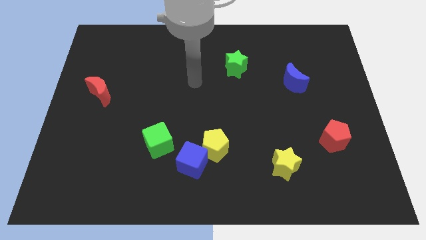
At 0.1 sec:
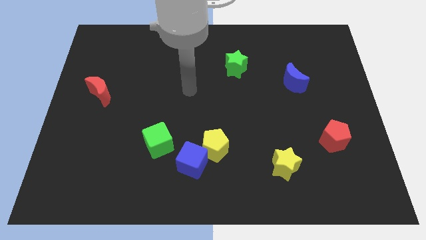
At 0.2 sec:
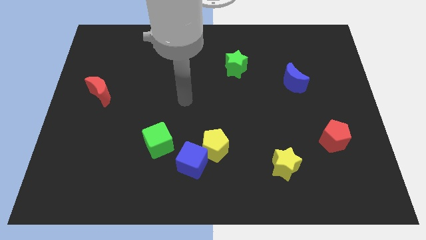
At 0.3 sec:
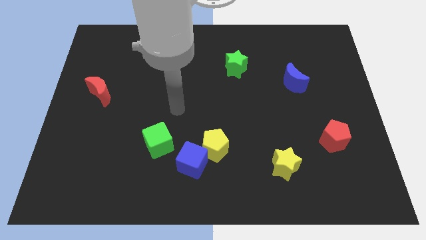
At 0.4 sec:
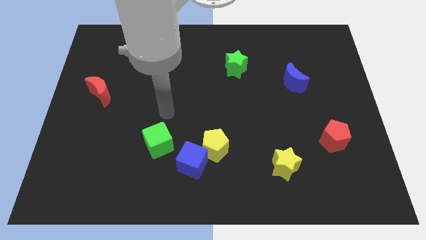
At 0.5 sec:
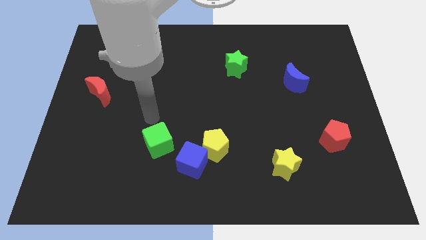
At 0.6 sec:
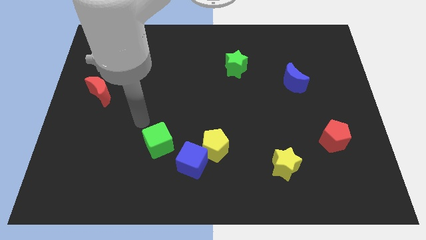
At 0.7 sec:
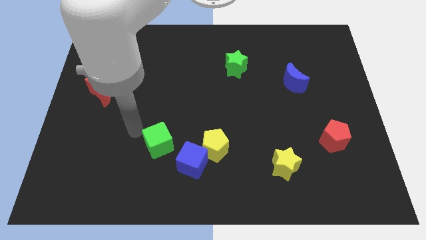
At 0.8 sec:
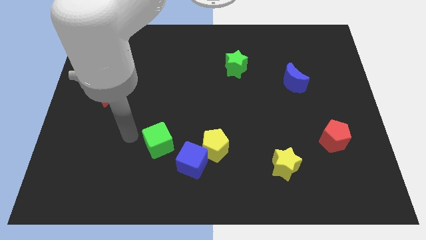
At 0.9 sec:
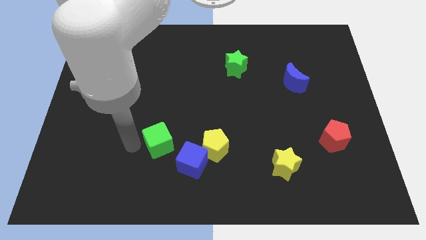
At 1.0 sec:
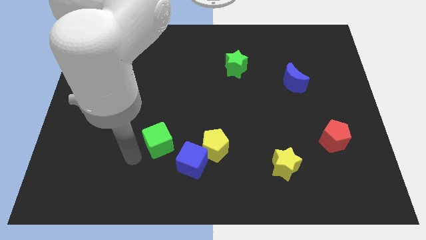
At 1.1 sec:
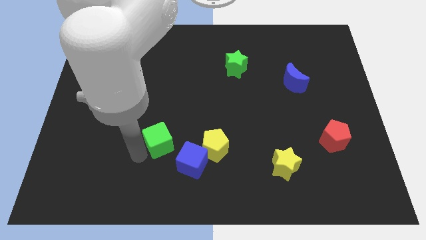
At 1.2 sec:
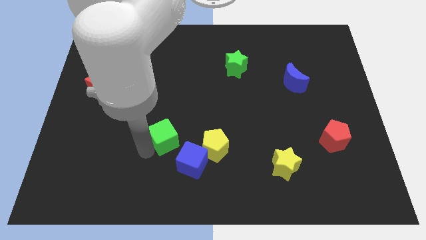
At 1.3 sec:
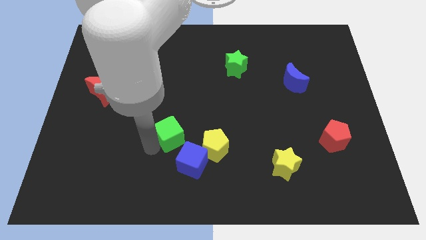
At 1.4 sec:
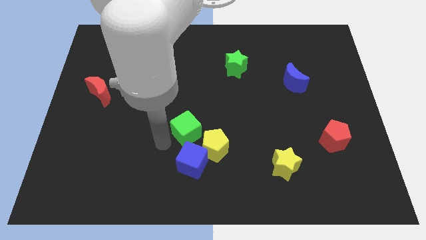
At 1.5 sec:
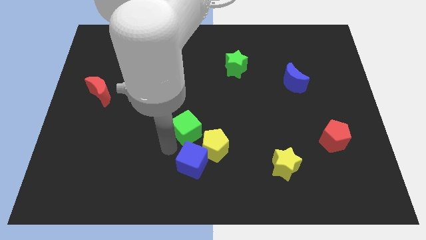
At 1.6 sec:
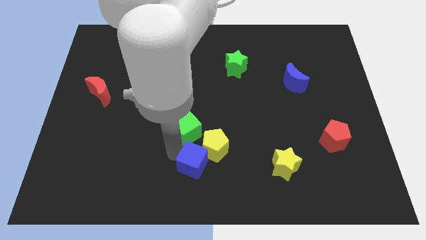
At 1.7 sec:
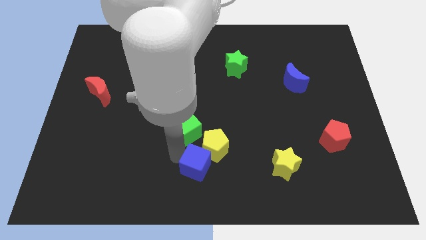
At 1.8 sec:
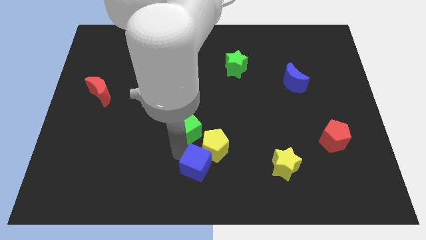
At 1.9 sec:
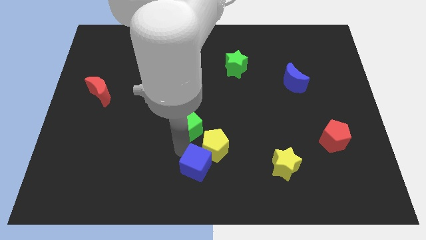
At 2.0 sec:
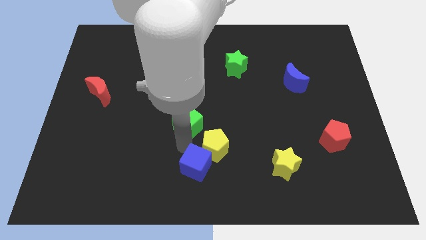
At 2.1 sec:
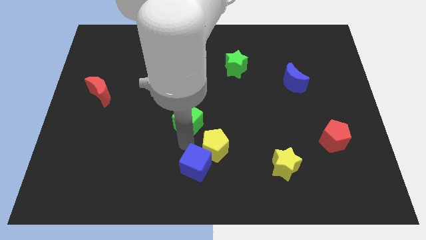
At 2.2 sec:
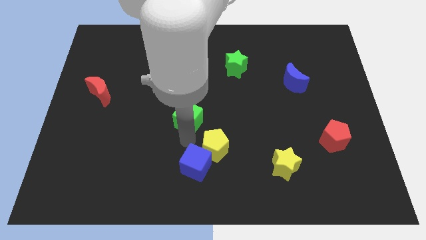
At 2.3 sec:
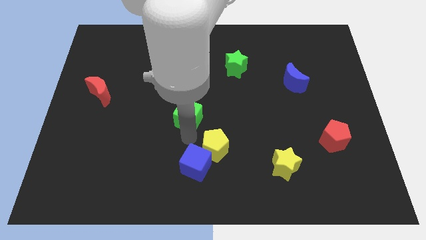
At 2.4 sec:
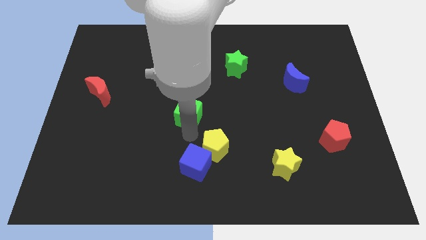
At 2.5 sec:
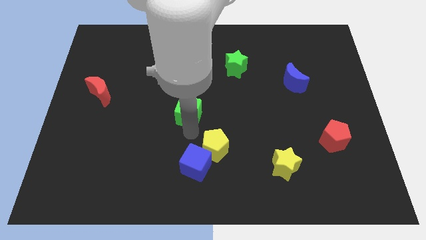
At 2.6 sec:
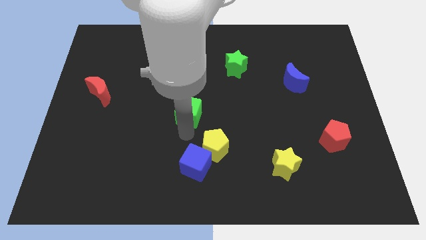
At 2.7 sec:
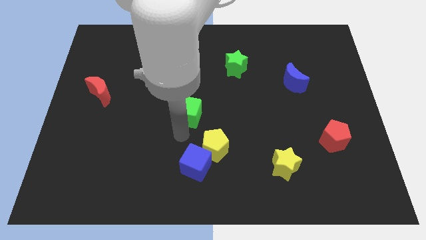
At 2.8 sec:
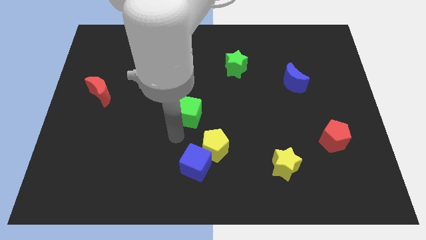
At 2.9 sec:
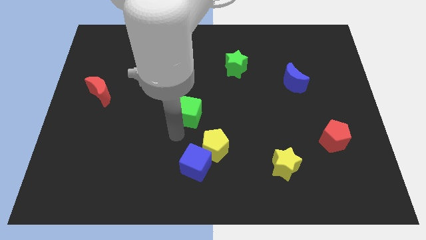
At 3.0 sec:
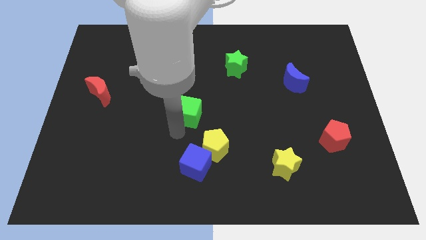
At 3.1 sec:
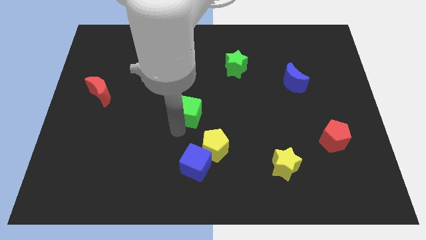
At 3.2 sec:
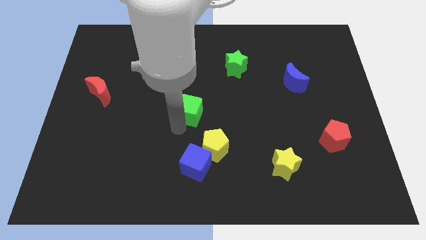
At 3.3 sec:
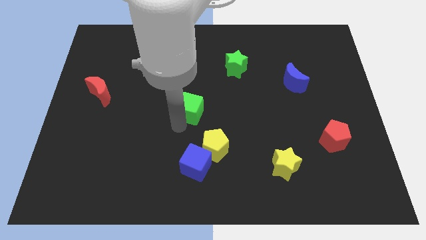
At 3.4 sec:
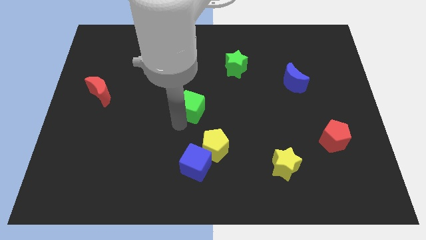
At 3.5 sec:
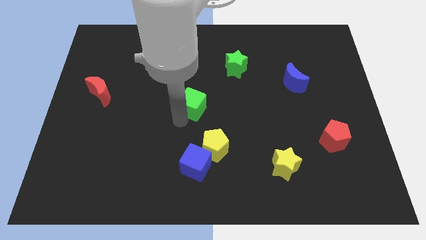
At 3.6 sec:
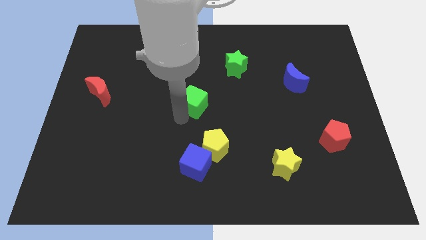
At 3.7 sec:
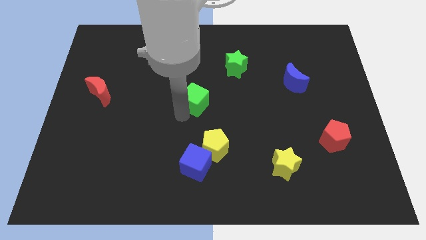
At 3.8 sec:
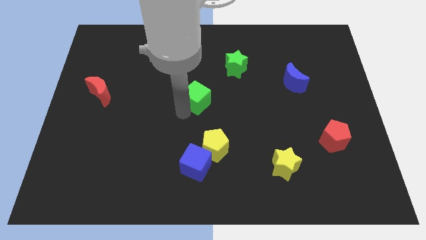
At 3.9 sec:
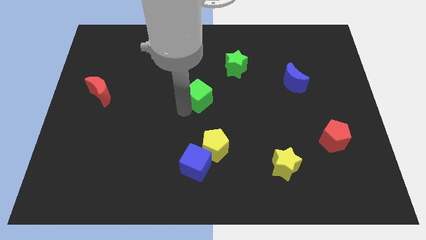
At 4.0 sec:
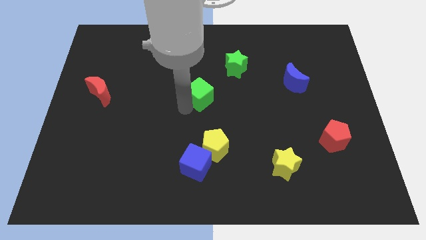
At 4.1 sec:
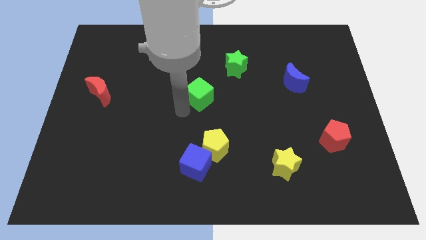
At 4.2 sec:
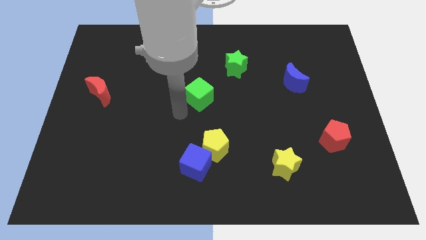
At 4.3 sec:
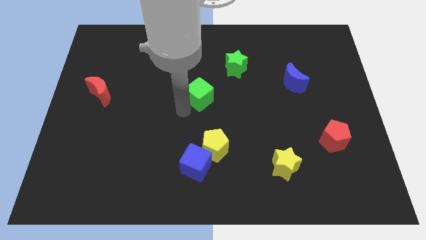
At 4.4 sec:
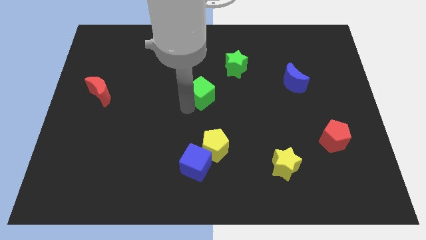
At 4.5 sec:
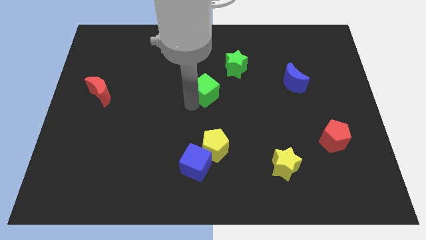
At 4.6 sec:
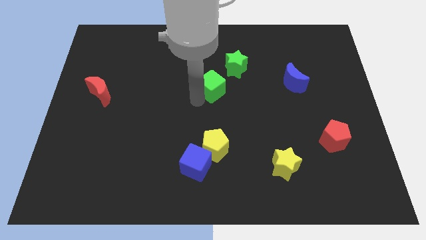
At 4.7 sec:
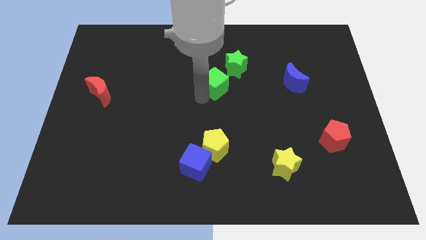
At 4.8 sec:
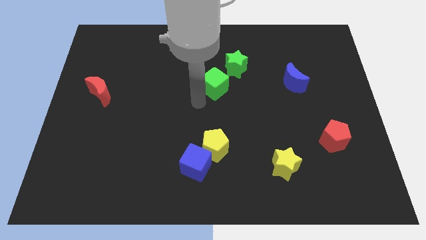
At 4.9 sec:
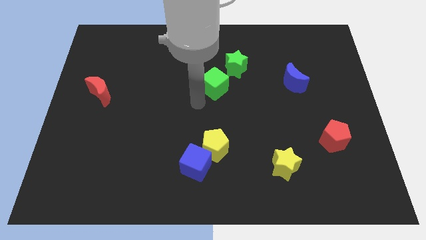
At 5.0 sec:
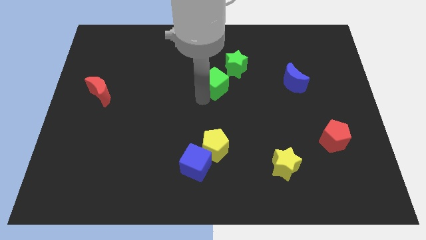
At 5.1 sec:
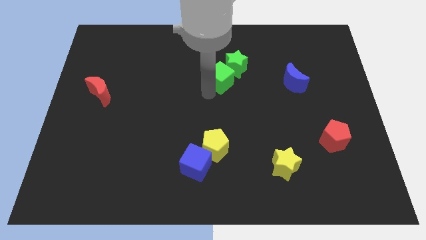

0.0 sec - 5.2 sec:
push the green cube next to the green star

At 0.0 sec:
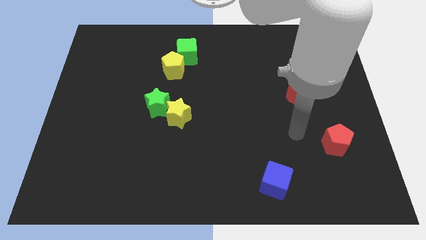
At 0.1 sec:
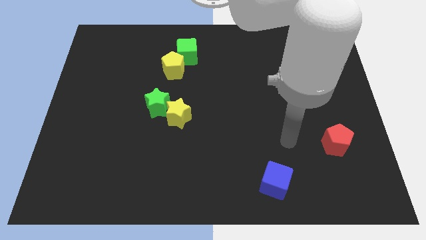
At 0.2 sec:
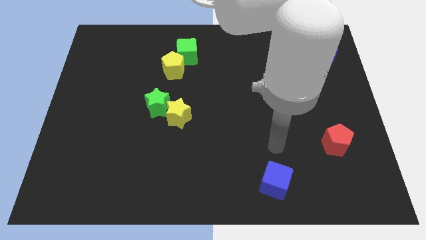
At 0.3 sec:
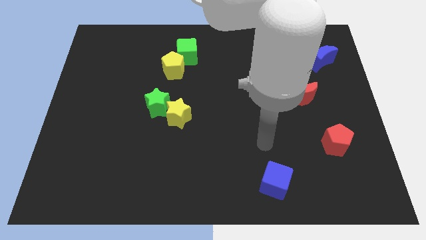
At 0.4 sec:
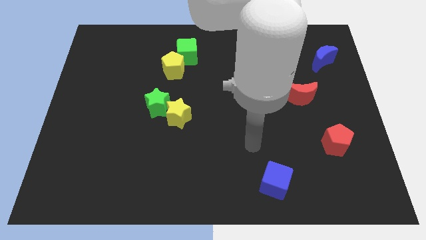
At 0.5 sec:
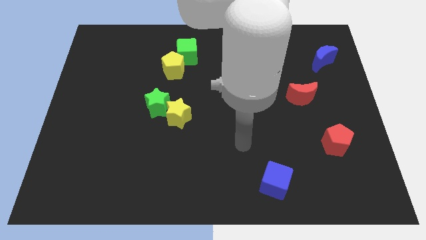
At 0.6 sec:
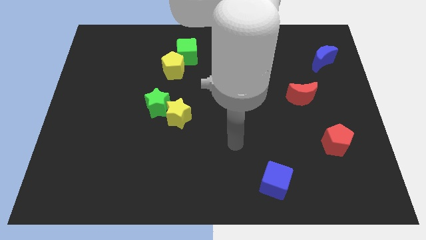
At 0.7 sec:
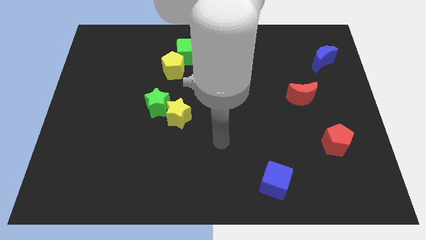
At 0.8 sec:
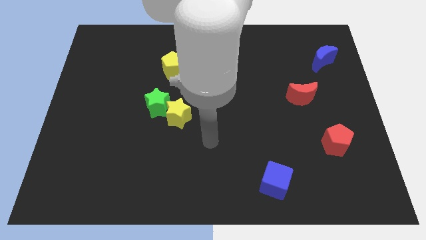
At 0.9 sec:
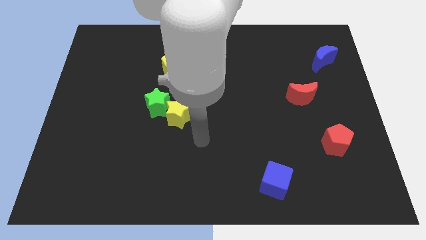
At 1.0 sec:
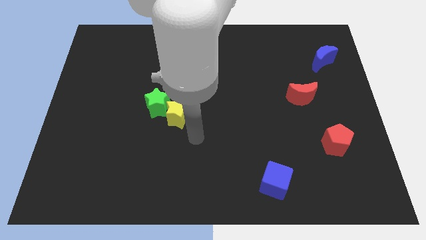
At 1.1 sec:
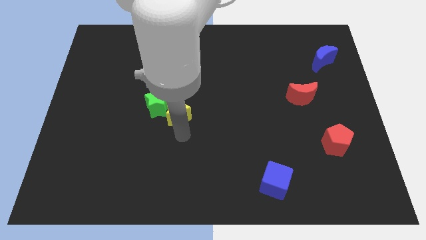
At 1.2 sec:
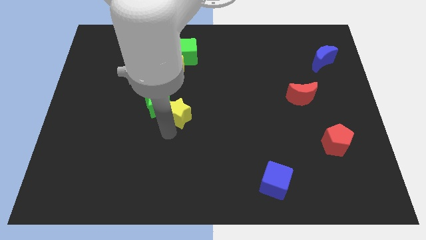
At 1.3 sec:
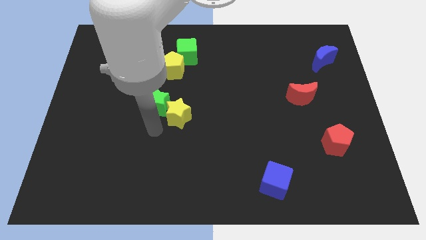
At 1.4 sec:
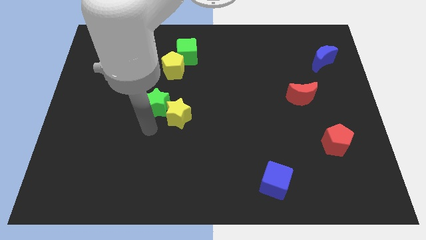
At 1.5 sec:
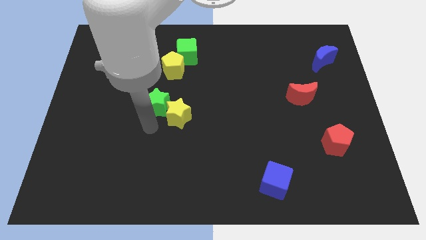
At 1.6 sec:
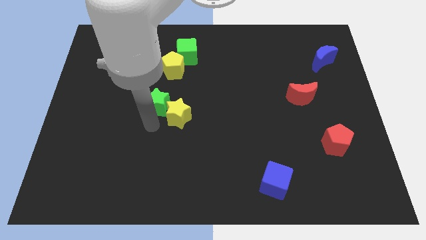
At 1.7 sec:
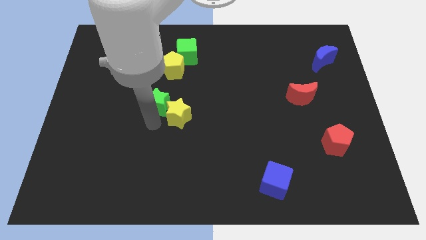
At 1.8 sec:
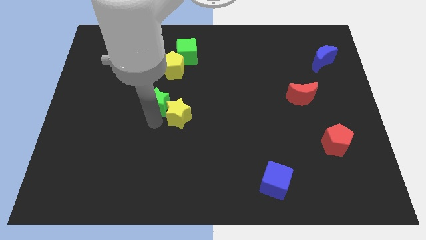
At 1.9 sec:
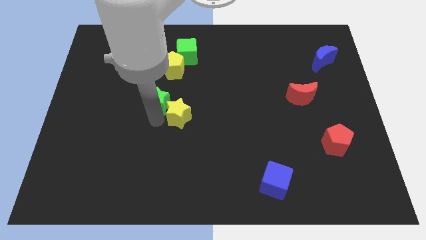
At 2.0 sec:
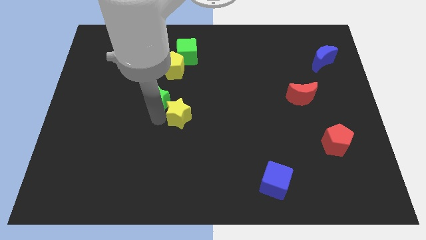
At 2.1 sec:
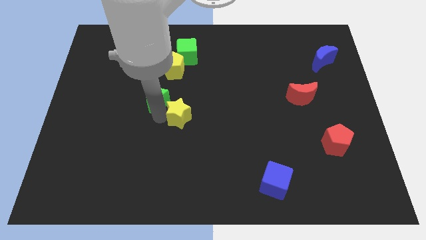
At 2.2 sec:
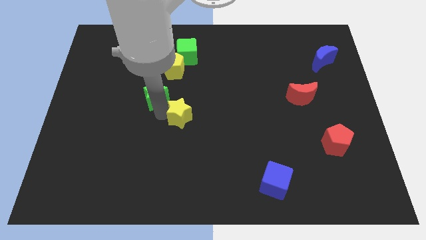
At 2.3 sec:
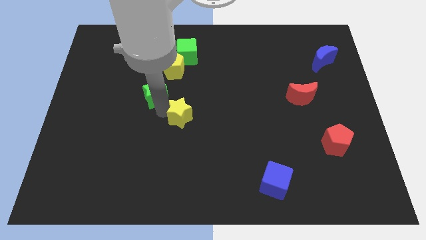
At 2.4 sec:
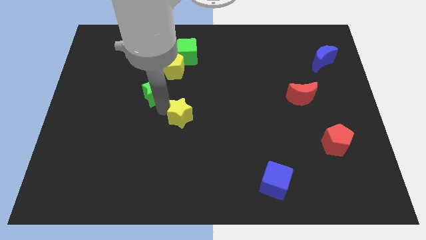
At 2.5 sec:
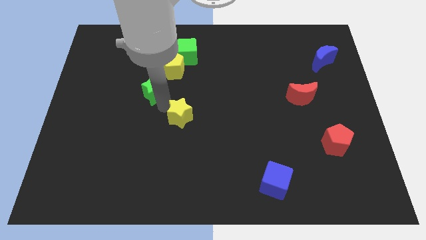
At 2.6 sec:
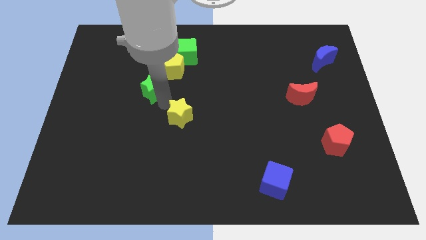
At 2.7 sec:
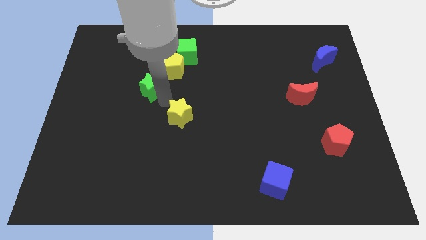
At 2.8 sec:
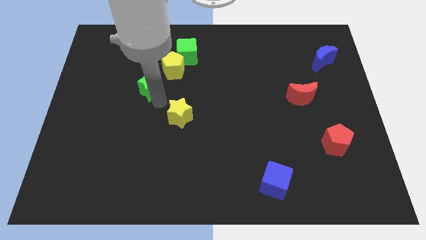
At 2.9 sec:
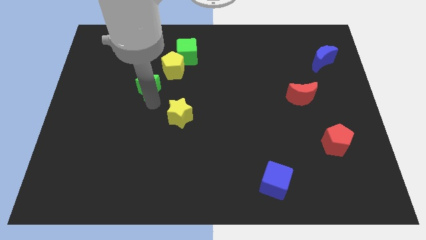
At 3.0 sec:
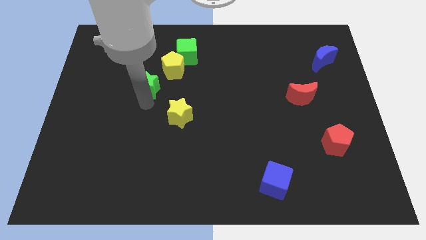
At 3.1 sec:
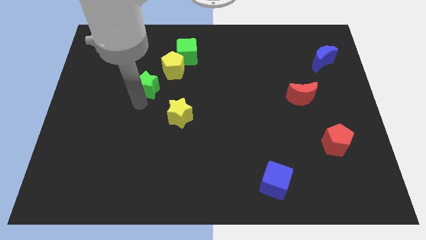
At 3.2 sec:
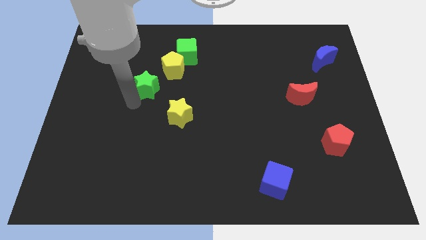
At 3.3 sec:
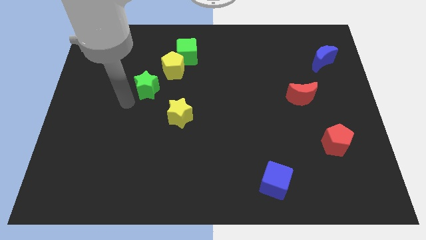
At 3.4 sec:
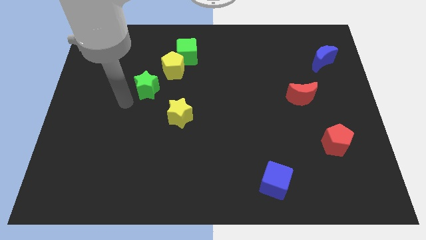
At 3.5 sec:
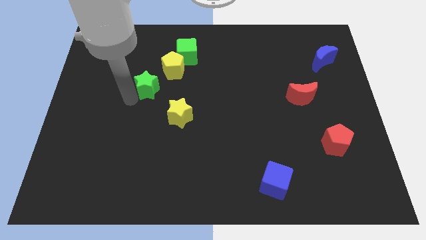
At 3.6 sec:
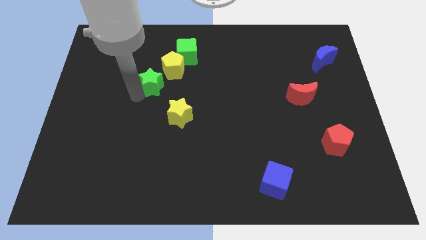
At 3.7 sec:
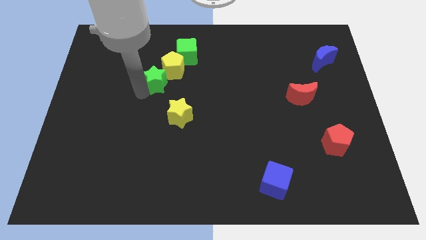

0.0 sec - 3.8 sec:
slide the green star close to the yellow pentagon
